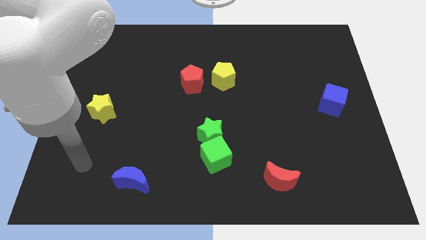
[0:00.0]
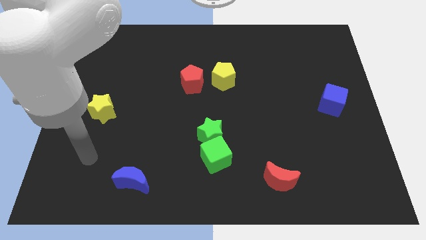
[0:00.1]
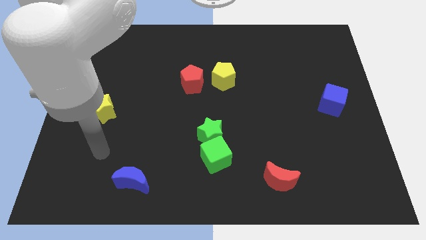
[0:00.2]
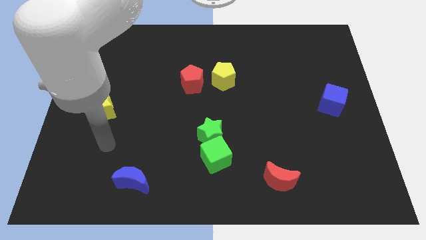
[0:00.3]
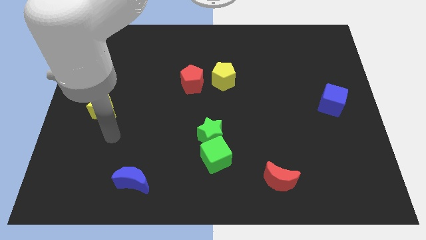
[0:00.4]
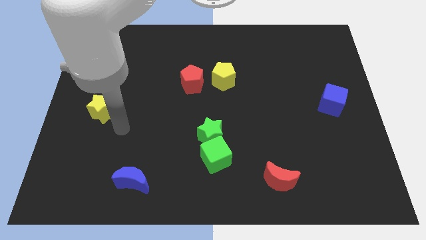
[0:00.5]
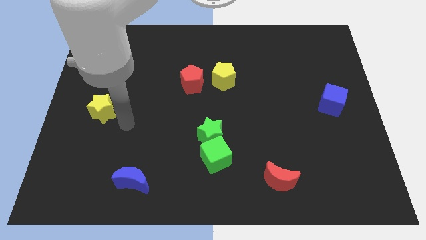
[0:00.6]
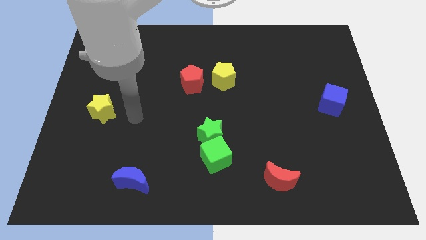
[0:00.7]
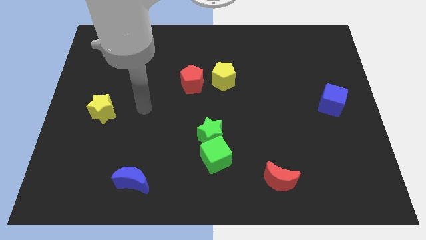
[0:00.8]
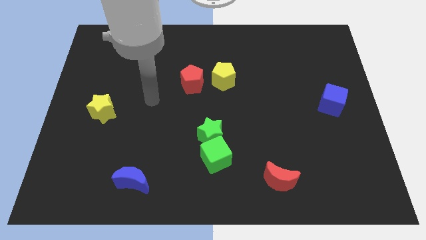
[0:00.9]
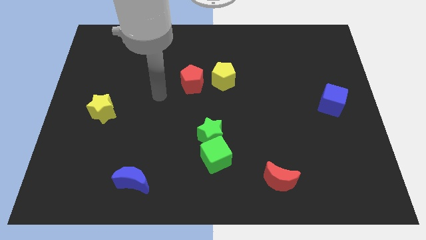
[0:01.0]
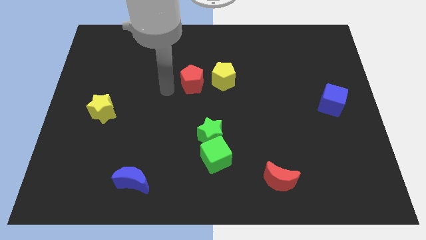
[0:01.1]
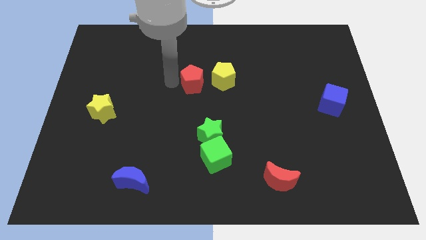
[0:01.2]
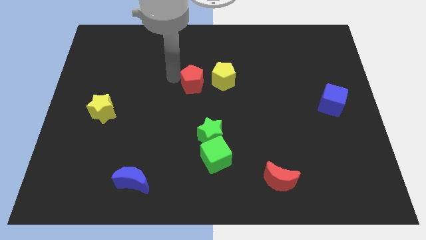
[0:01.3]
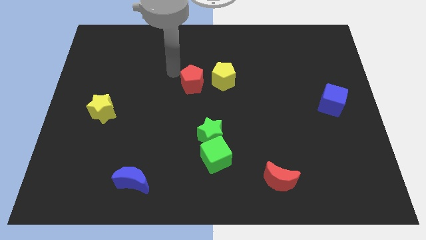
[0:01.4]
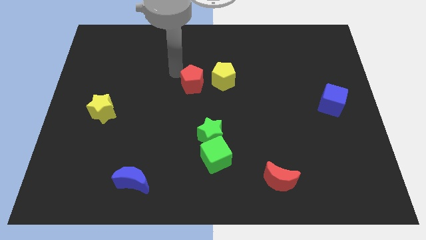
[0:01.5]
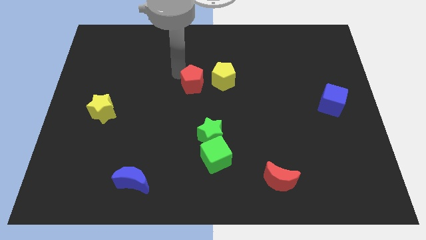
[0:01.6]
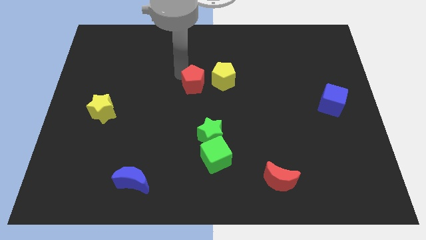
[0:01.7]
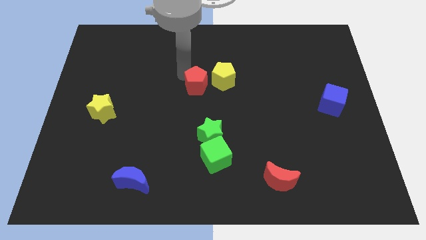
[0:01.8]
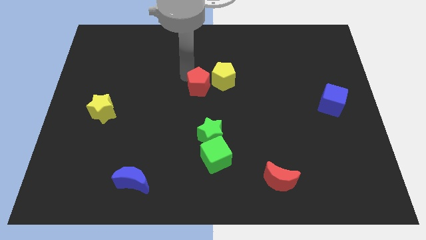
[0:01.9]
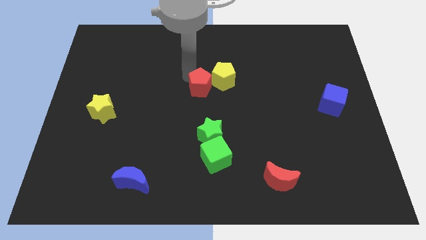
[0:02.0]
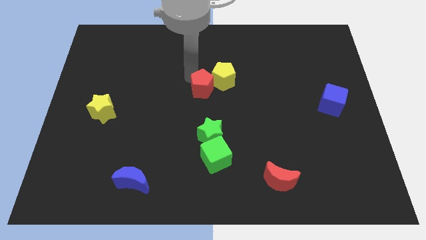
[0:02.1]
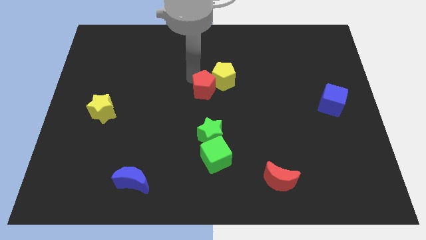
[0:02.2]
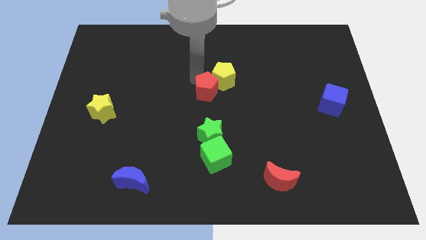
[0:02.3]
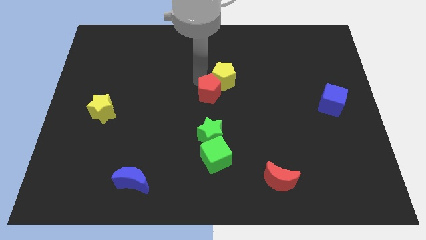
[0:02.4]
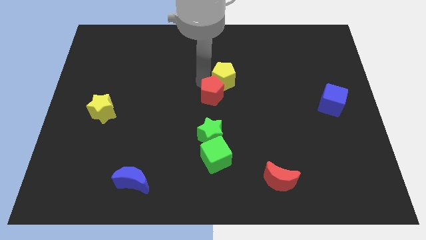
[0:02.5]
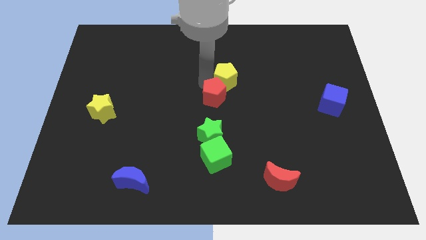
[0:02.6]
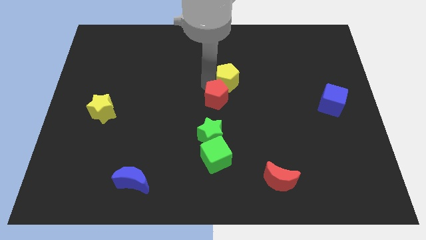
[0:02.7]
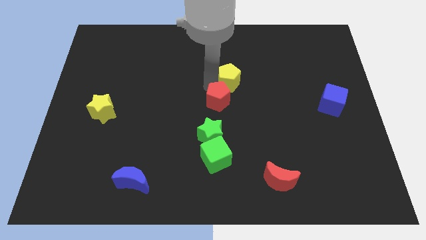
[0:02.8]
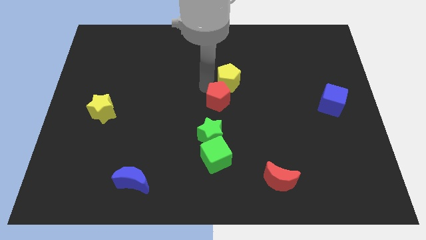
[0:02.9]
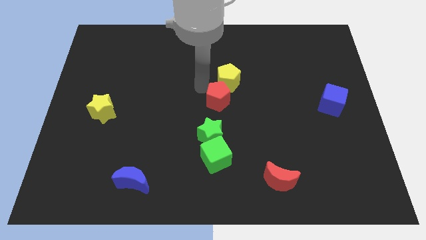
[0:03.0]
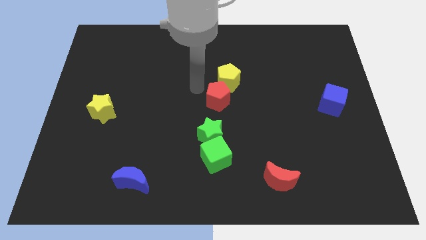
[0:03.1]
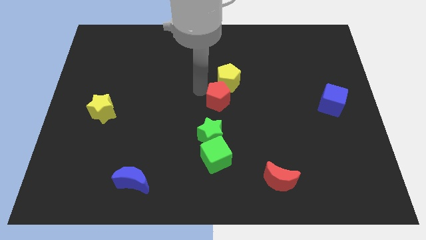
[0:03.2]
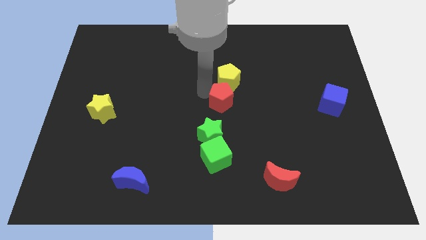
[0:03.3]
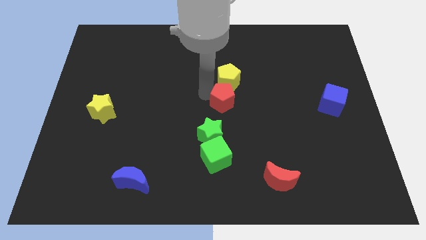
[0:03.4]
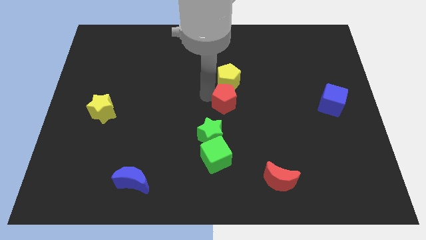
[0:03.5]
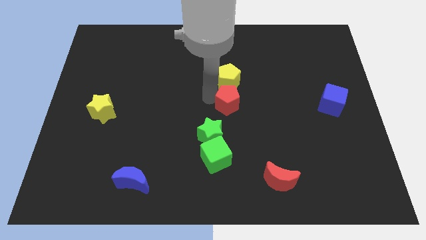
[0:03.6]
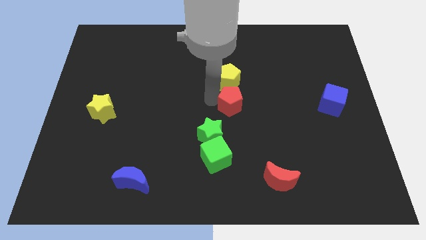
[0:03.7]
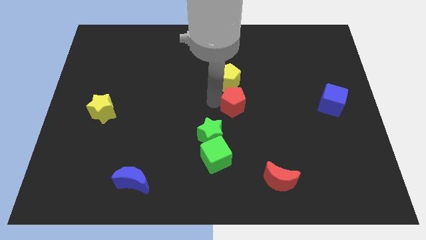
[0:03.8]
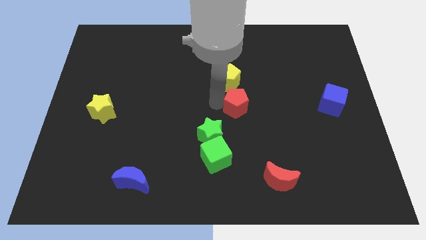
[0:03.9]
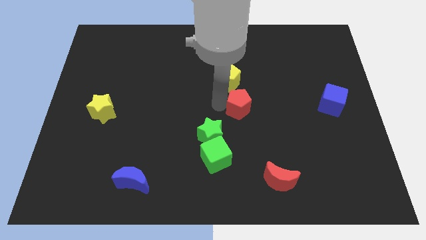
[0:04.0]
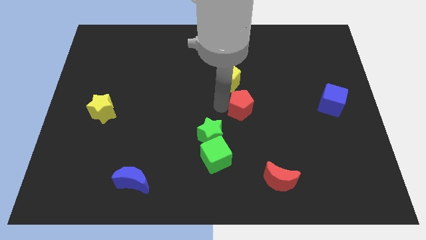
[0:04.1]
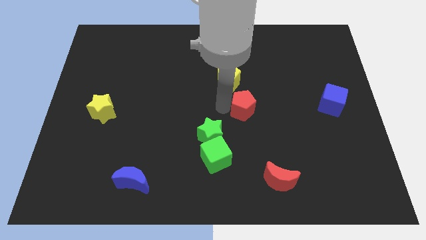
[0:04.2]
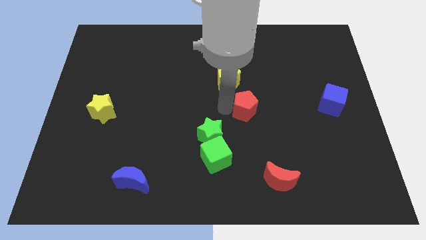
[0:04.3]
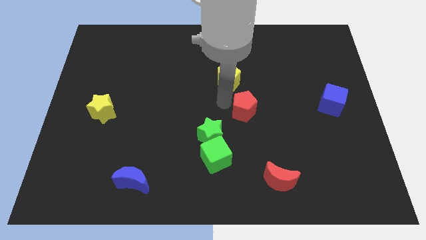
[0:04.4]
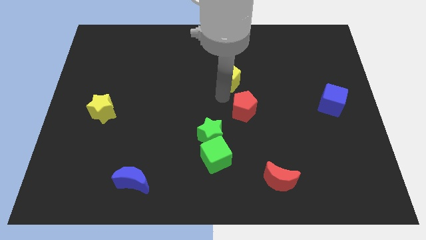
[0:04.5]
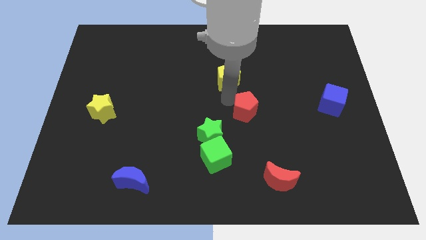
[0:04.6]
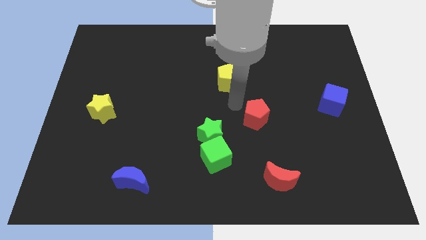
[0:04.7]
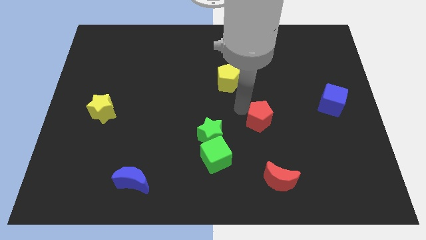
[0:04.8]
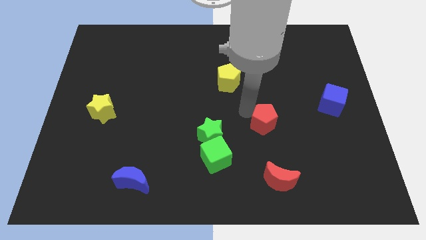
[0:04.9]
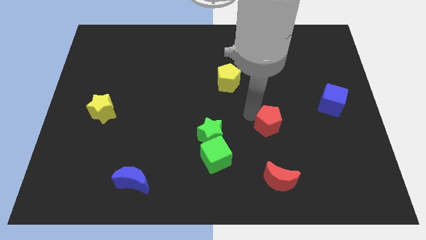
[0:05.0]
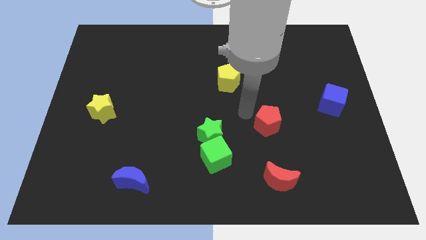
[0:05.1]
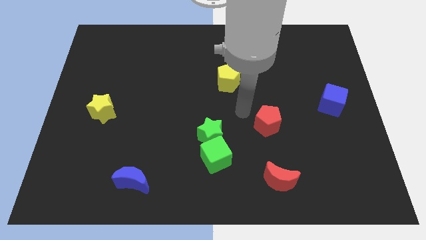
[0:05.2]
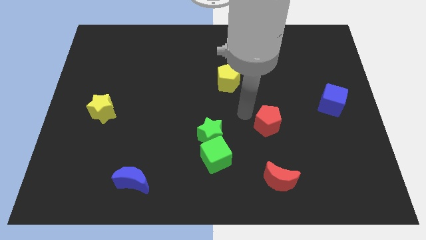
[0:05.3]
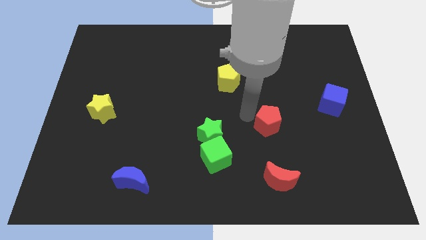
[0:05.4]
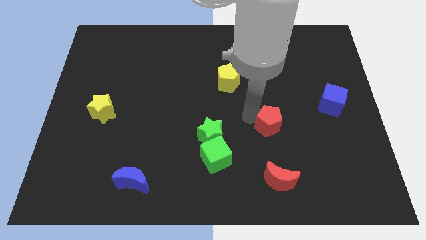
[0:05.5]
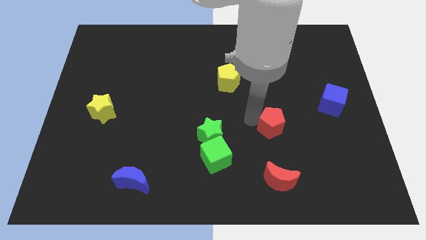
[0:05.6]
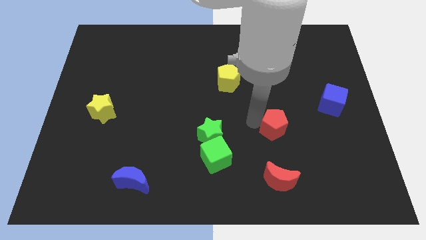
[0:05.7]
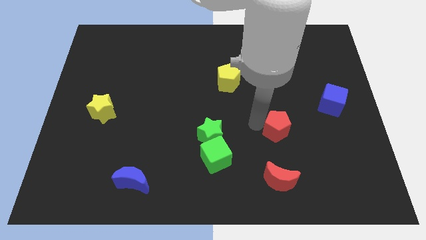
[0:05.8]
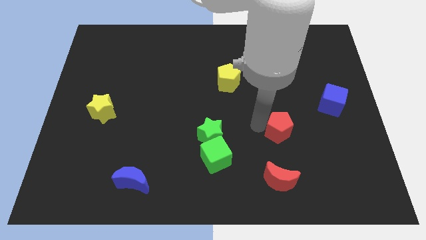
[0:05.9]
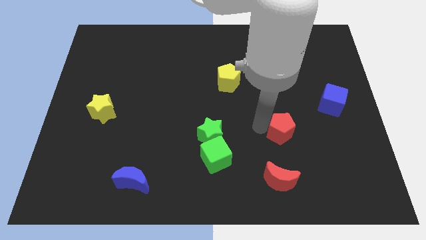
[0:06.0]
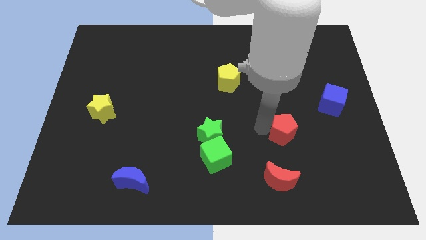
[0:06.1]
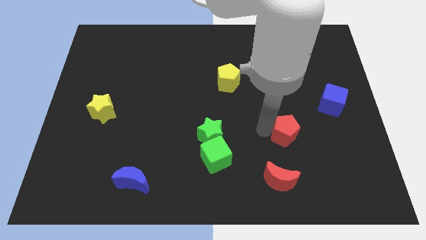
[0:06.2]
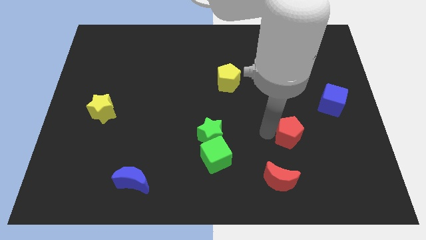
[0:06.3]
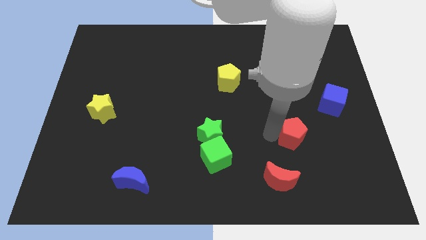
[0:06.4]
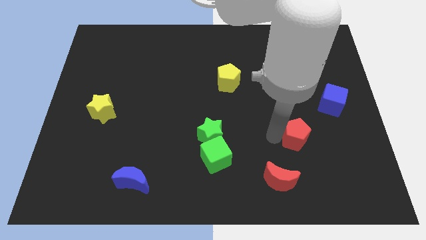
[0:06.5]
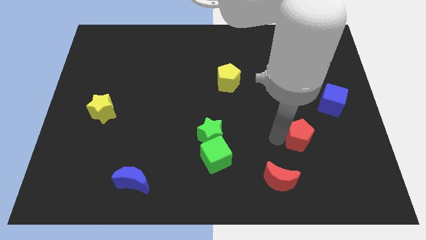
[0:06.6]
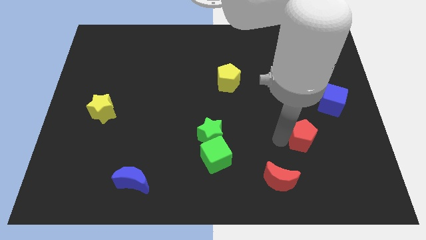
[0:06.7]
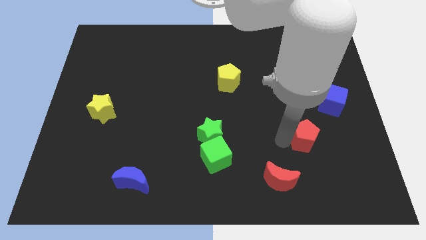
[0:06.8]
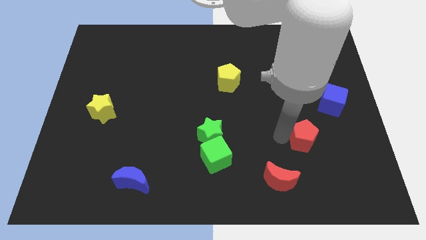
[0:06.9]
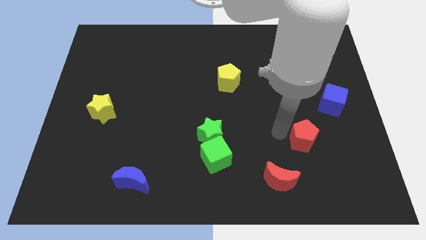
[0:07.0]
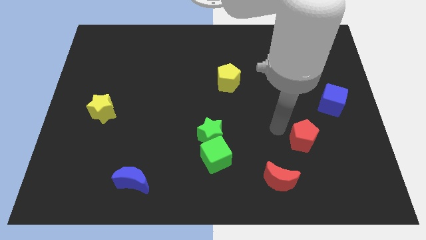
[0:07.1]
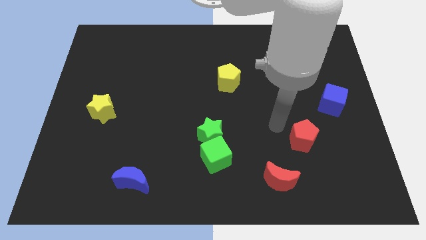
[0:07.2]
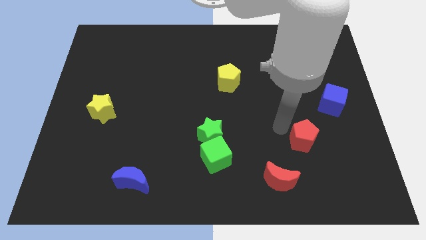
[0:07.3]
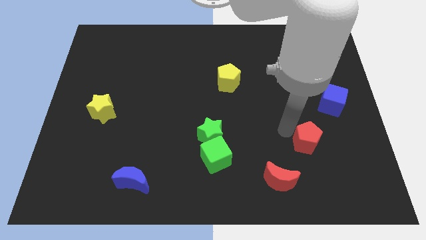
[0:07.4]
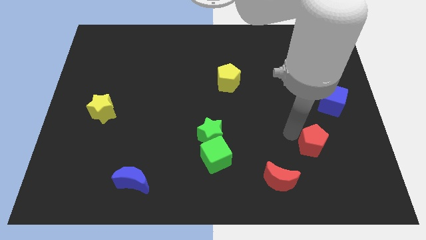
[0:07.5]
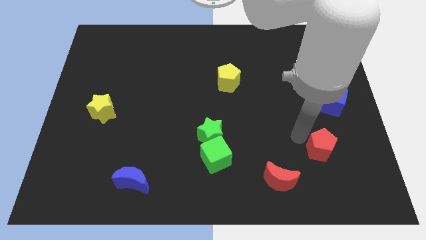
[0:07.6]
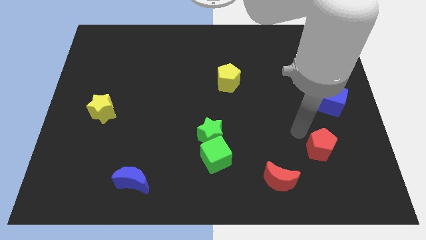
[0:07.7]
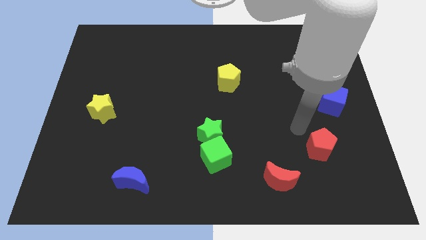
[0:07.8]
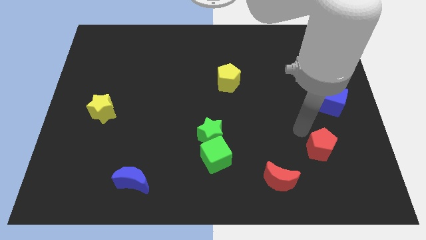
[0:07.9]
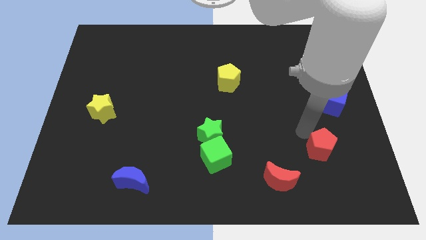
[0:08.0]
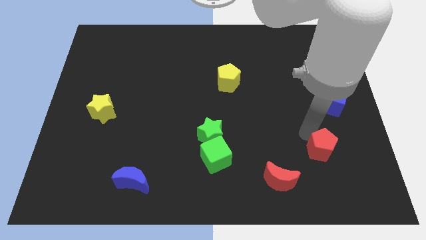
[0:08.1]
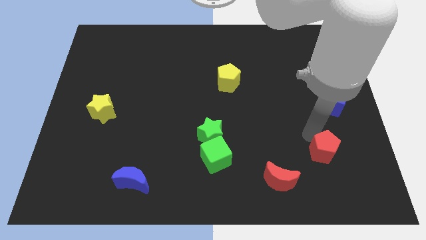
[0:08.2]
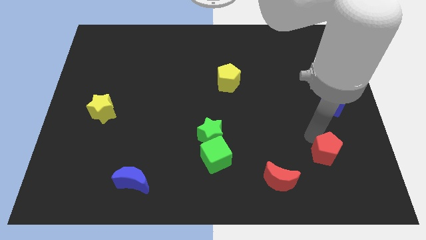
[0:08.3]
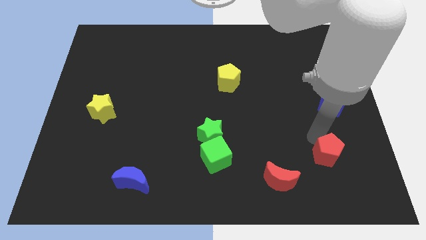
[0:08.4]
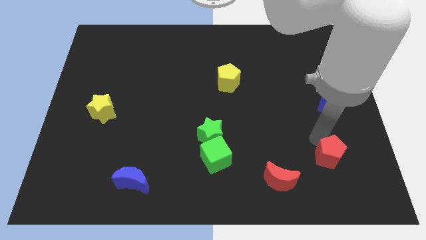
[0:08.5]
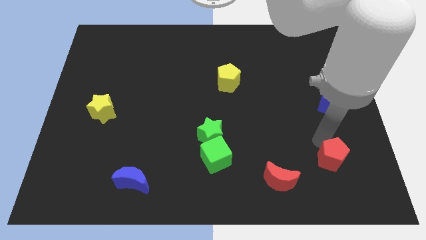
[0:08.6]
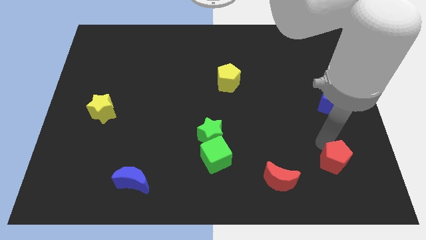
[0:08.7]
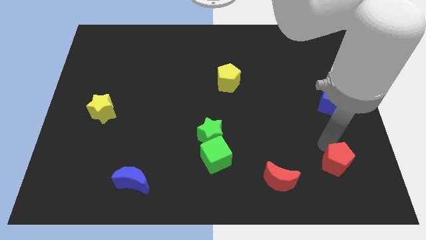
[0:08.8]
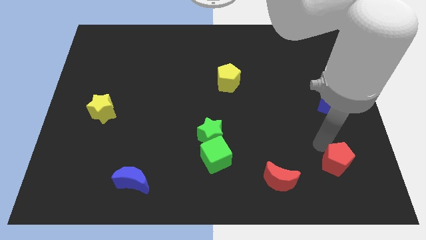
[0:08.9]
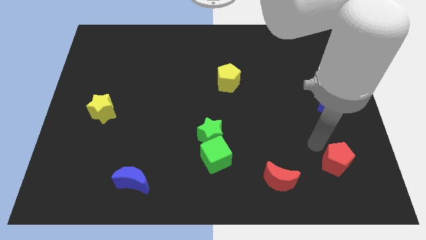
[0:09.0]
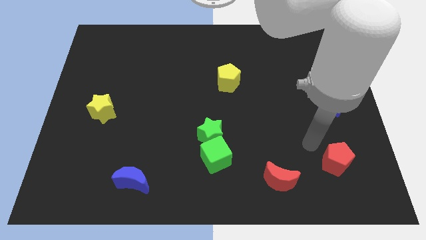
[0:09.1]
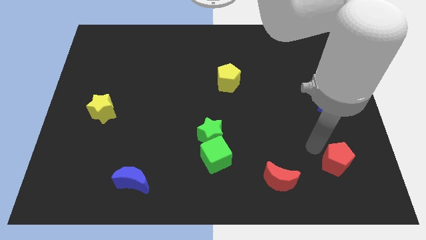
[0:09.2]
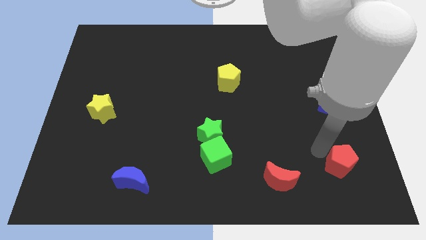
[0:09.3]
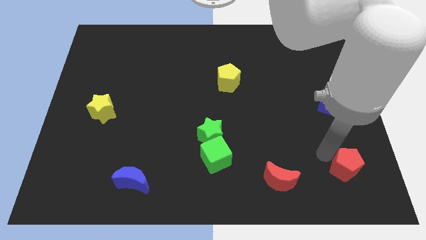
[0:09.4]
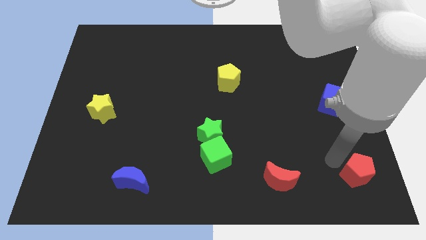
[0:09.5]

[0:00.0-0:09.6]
move the red pentagon to the bottom right
